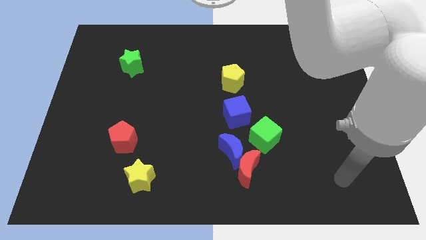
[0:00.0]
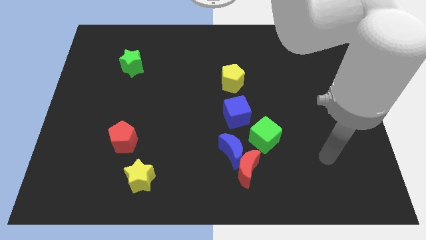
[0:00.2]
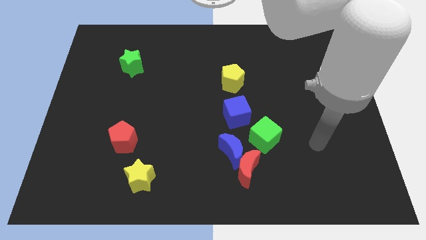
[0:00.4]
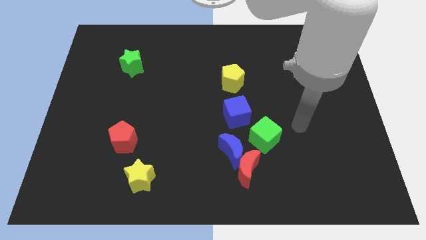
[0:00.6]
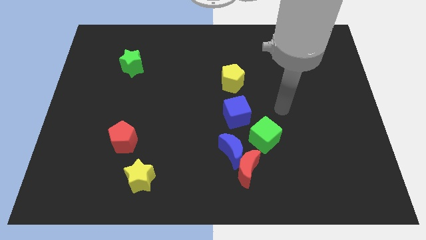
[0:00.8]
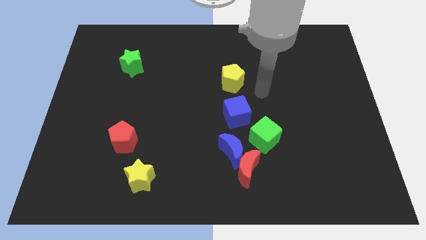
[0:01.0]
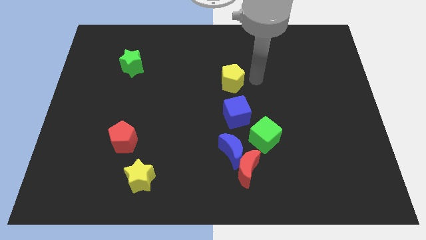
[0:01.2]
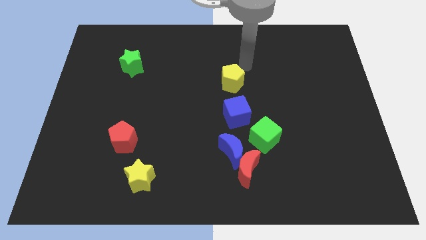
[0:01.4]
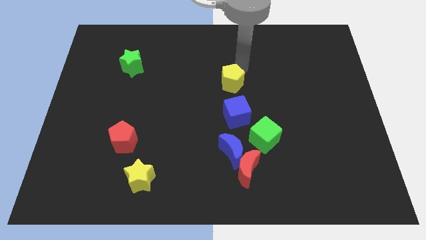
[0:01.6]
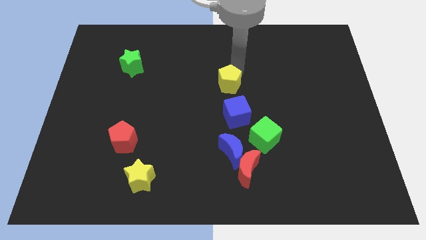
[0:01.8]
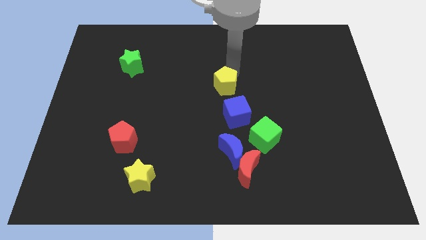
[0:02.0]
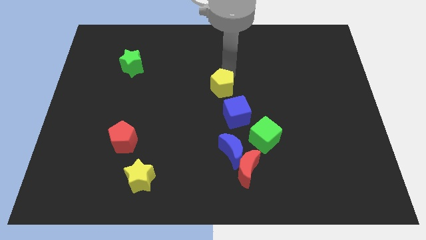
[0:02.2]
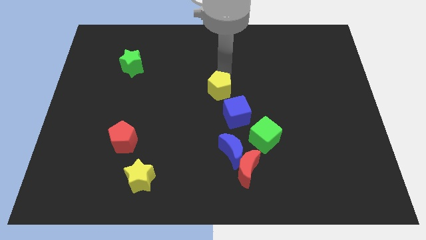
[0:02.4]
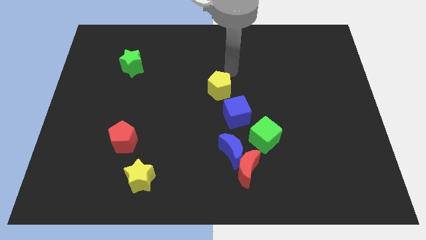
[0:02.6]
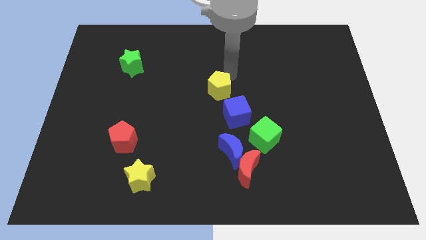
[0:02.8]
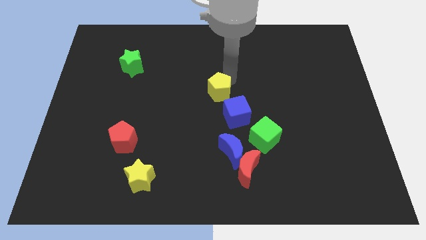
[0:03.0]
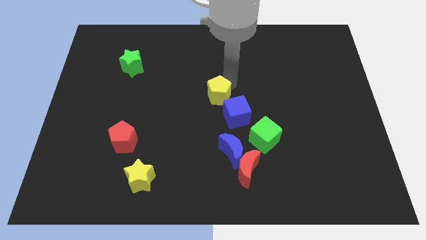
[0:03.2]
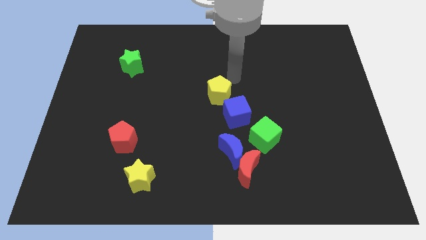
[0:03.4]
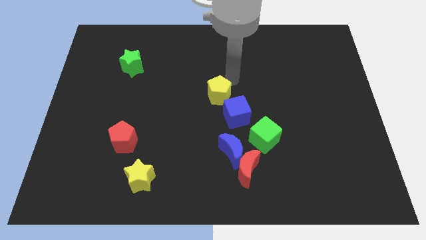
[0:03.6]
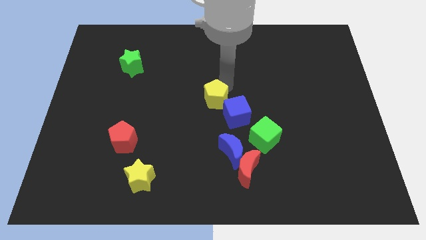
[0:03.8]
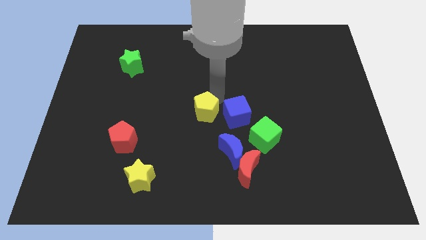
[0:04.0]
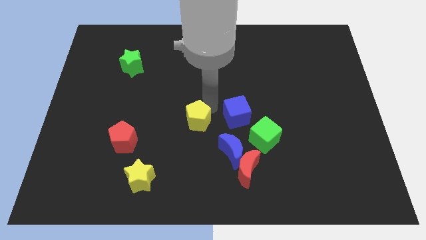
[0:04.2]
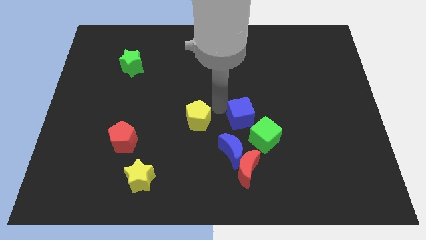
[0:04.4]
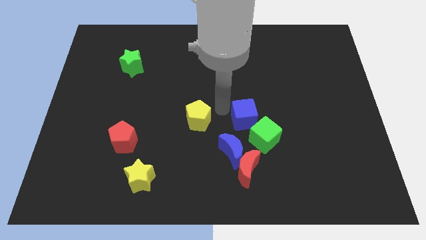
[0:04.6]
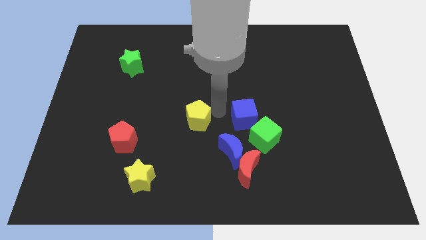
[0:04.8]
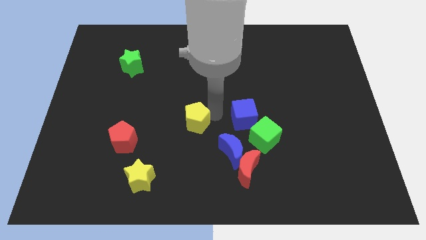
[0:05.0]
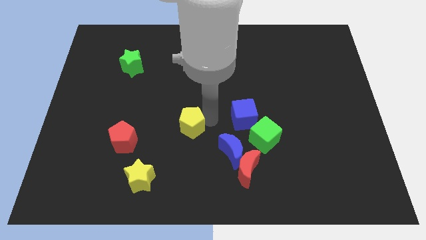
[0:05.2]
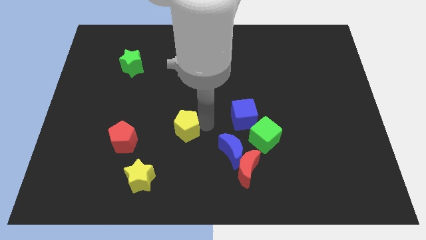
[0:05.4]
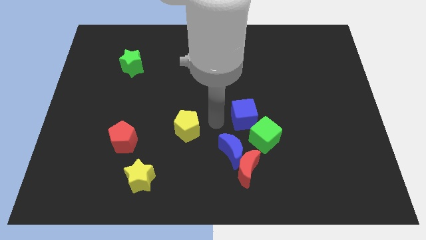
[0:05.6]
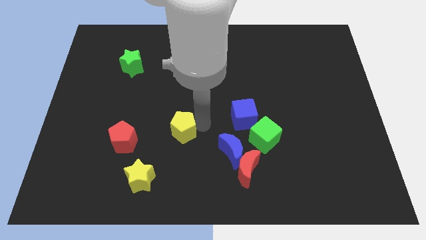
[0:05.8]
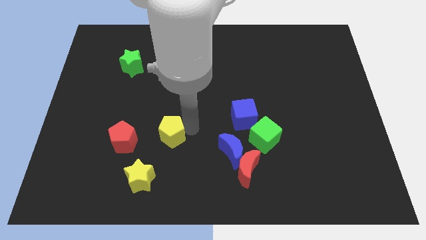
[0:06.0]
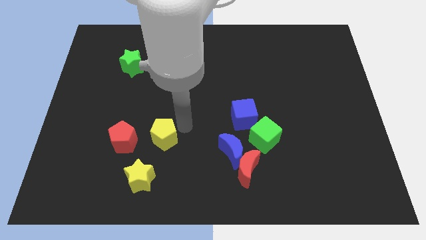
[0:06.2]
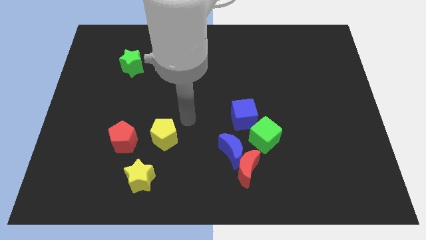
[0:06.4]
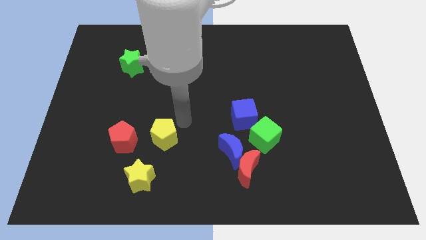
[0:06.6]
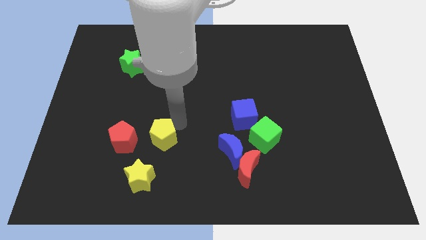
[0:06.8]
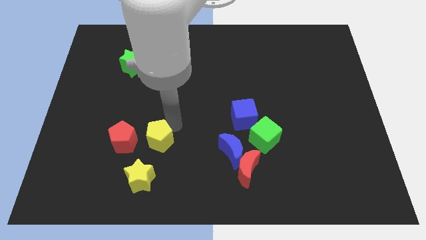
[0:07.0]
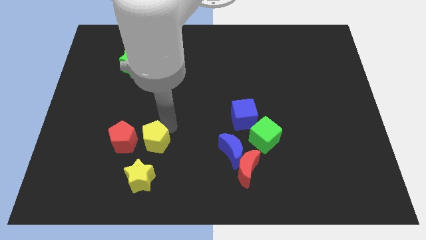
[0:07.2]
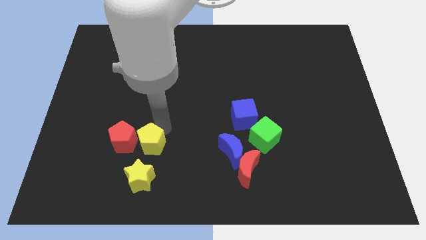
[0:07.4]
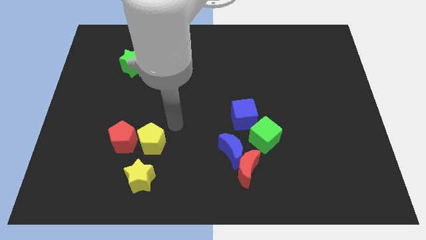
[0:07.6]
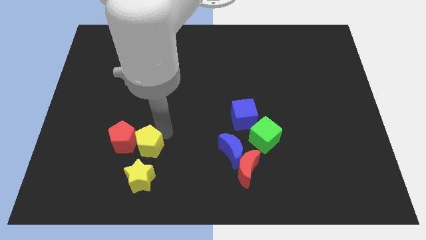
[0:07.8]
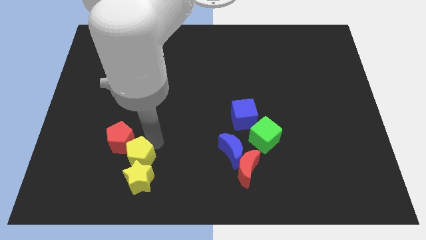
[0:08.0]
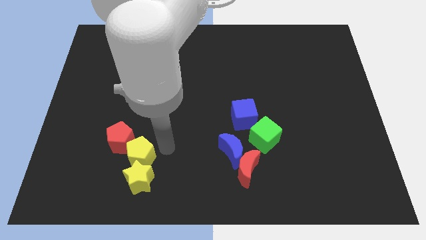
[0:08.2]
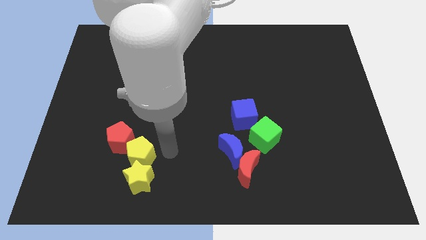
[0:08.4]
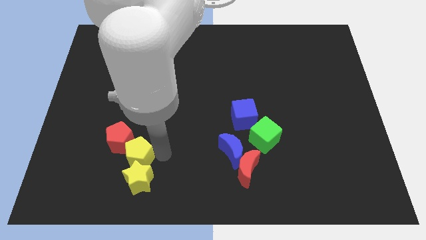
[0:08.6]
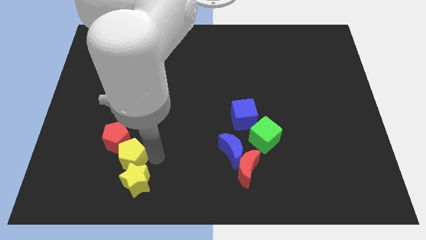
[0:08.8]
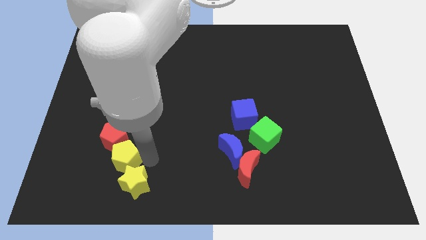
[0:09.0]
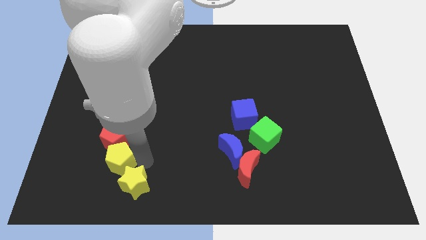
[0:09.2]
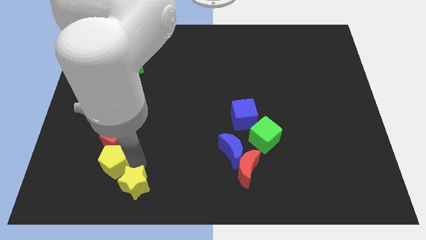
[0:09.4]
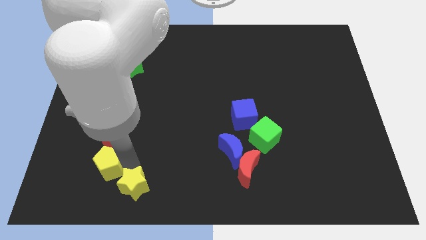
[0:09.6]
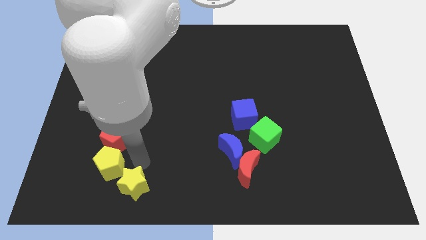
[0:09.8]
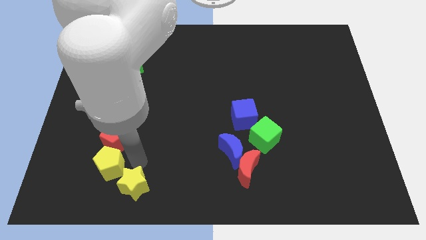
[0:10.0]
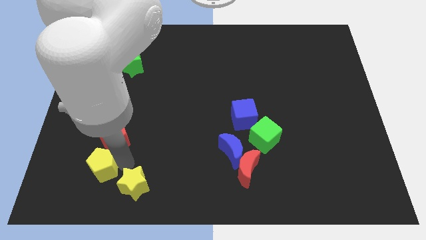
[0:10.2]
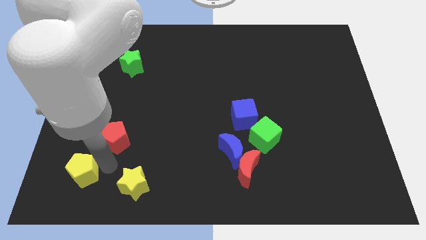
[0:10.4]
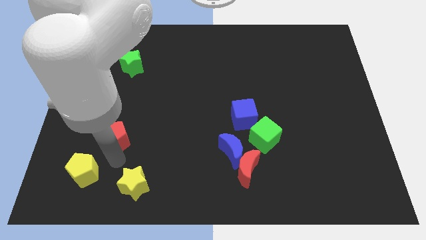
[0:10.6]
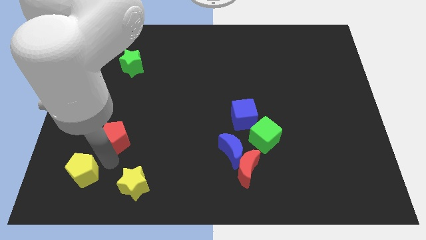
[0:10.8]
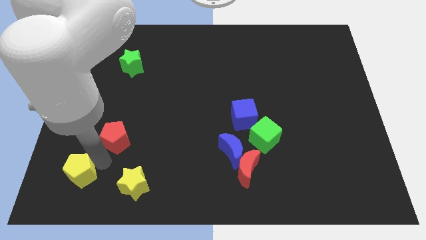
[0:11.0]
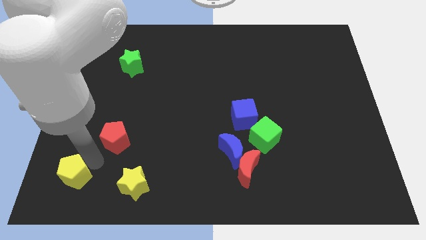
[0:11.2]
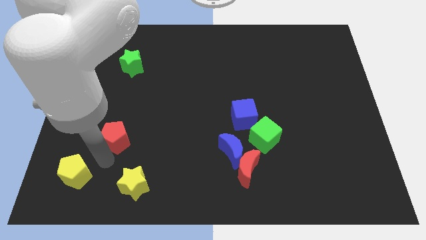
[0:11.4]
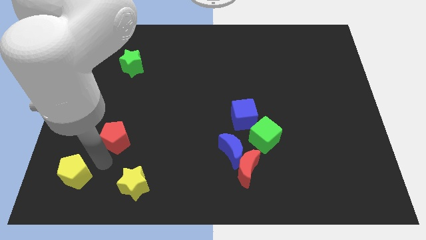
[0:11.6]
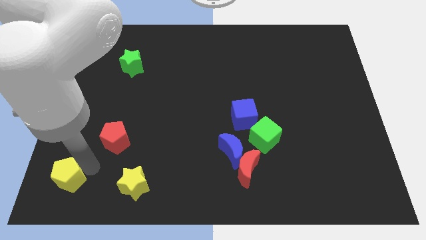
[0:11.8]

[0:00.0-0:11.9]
push the yellow pentagon to the lower left corner

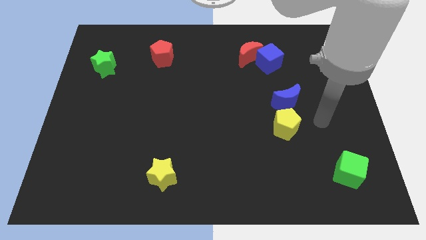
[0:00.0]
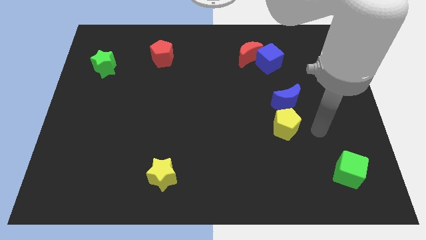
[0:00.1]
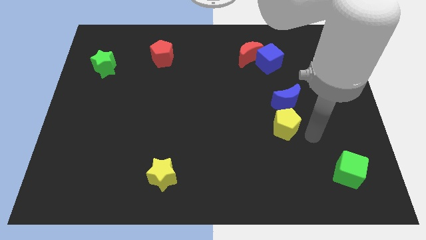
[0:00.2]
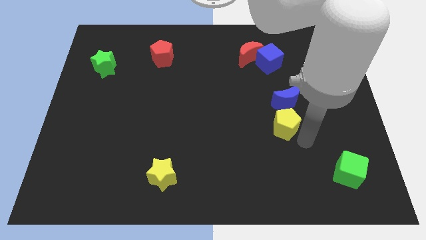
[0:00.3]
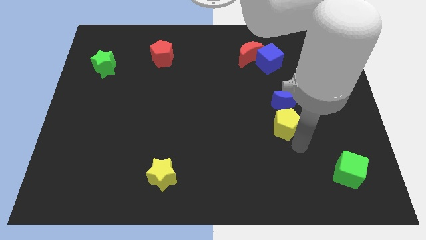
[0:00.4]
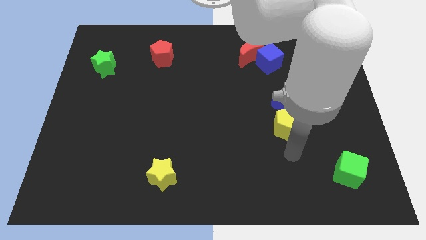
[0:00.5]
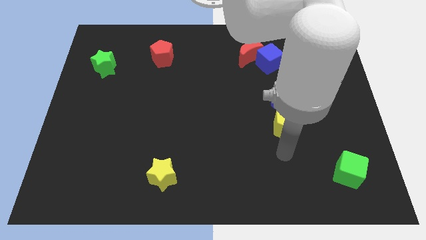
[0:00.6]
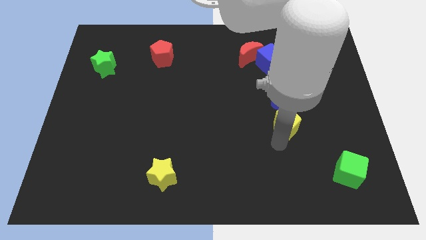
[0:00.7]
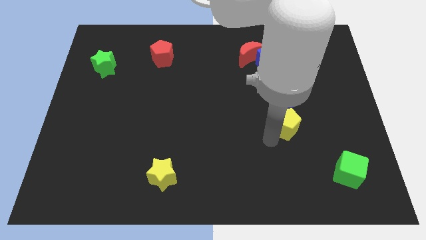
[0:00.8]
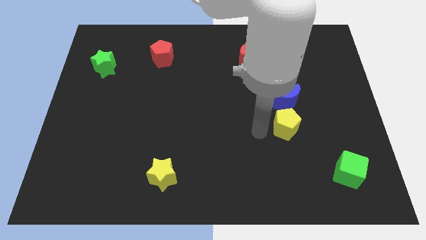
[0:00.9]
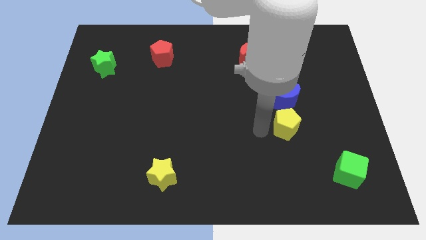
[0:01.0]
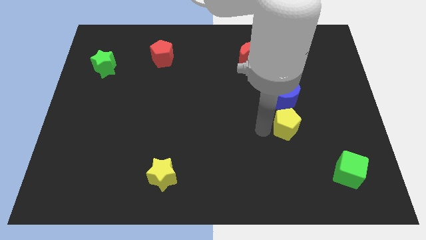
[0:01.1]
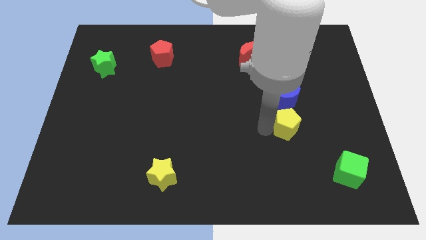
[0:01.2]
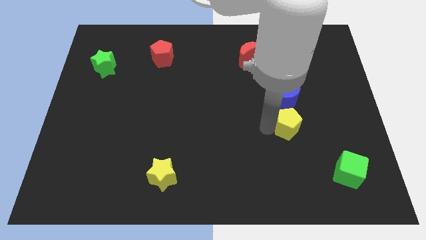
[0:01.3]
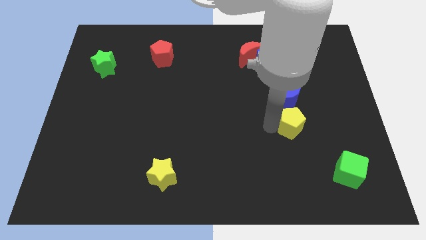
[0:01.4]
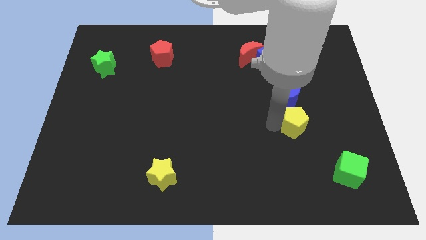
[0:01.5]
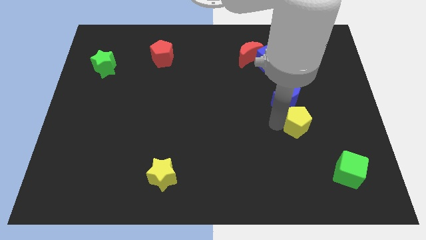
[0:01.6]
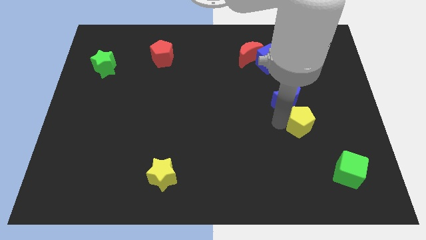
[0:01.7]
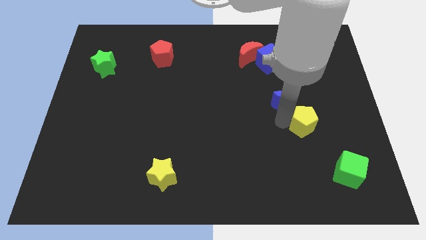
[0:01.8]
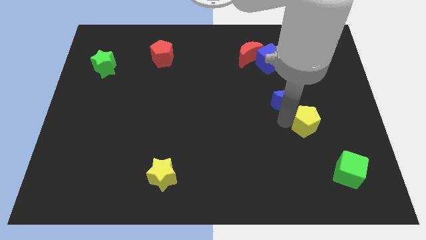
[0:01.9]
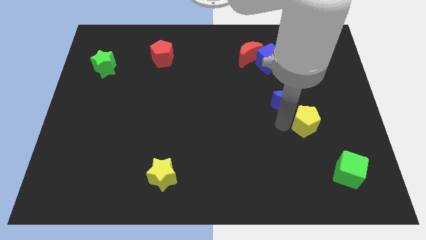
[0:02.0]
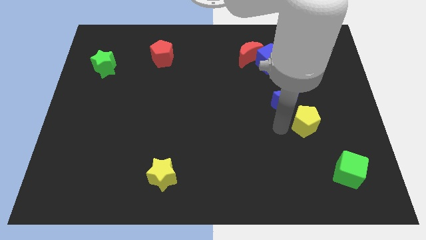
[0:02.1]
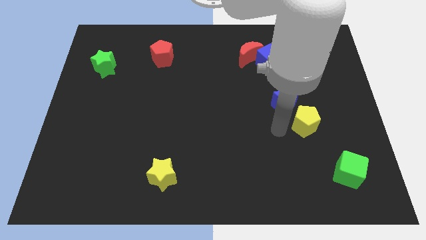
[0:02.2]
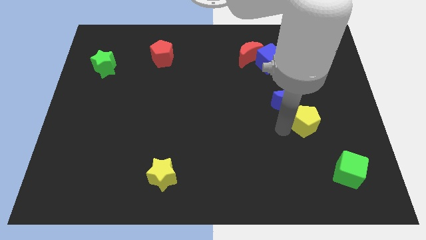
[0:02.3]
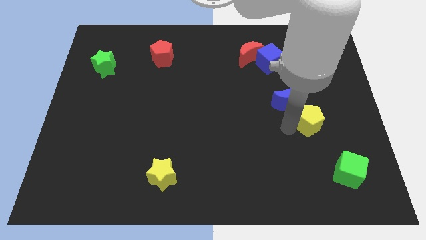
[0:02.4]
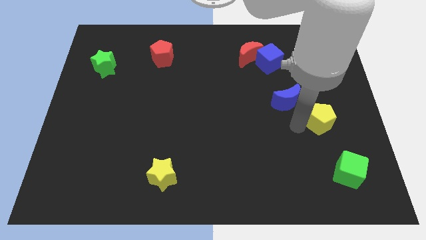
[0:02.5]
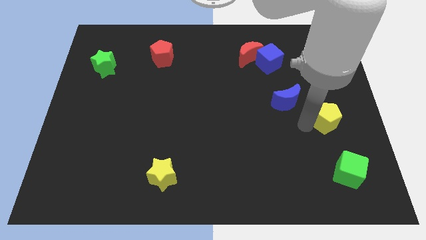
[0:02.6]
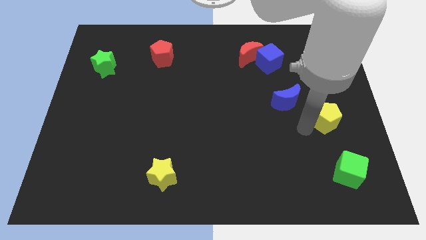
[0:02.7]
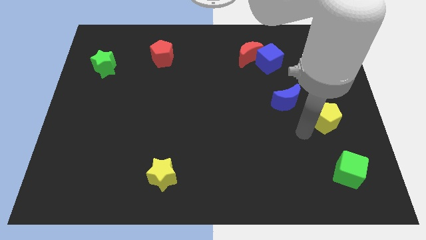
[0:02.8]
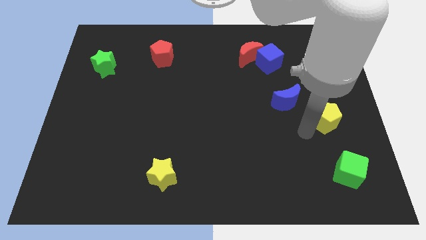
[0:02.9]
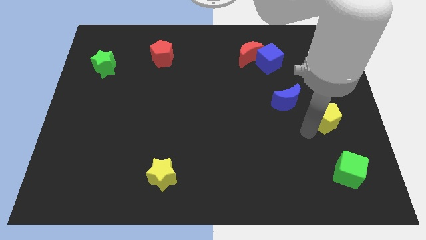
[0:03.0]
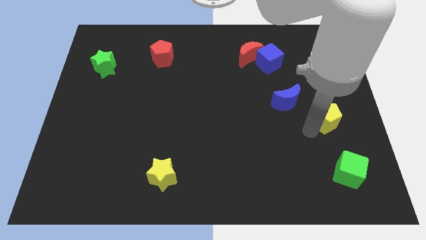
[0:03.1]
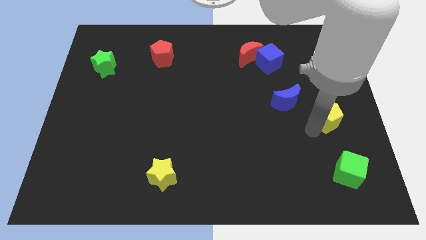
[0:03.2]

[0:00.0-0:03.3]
put the yellow pentagon to the right side
